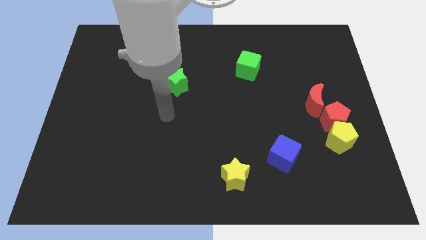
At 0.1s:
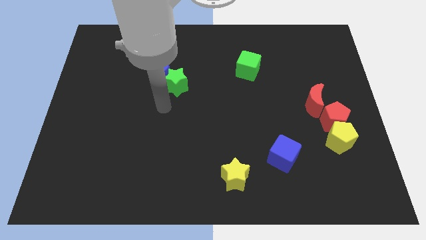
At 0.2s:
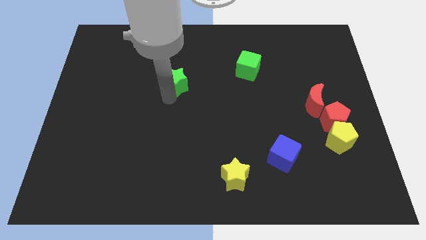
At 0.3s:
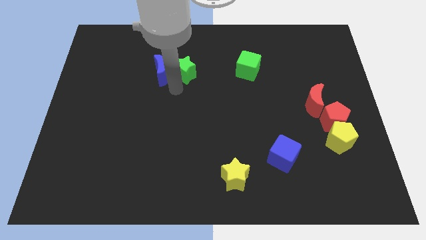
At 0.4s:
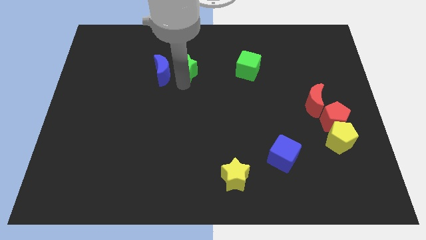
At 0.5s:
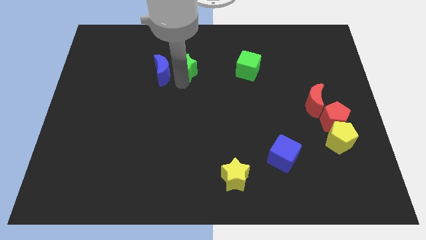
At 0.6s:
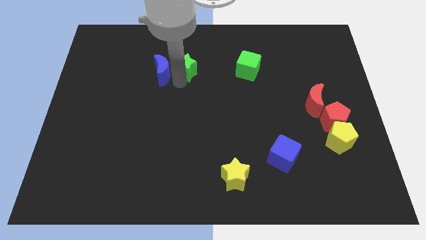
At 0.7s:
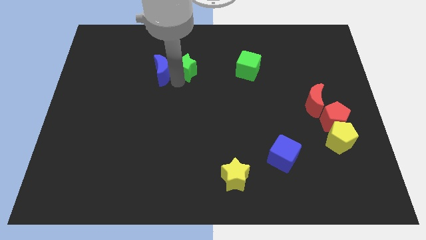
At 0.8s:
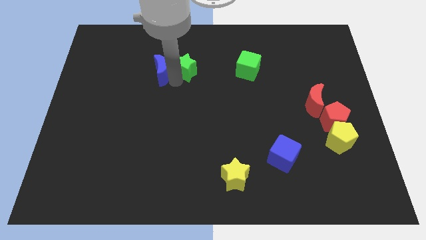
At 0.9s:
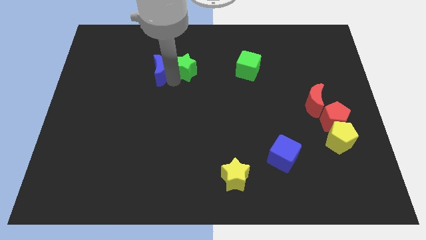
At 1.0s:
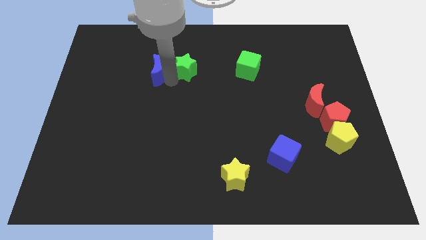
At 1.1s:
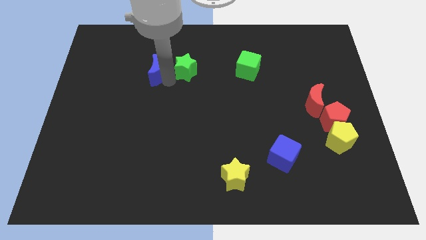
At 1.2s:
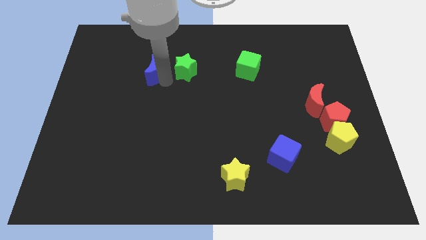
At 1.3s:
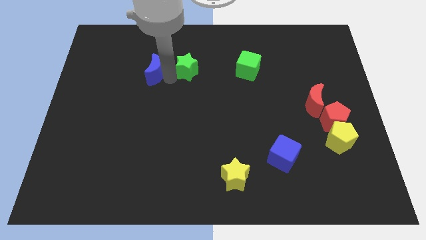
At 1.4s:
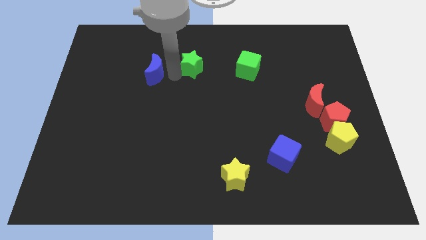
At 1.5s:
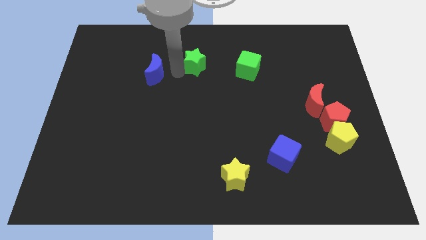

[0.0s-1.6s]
move the blue moon away from the green star

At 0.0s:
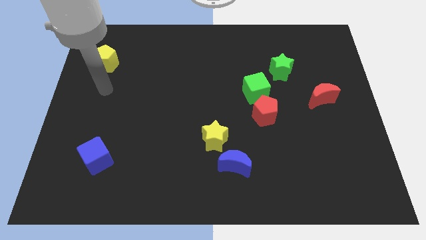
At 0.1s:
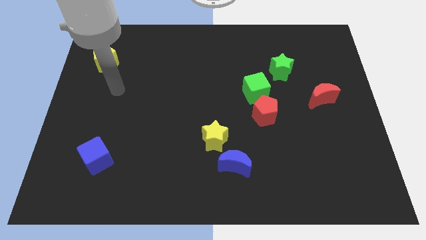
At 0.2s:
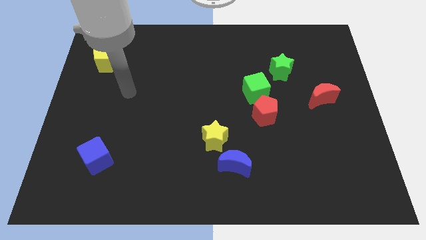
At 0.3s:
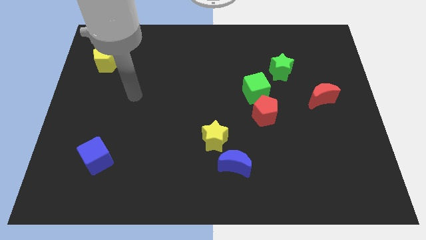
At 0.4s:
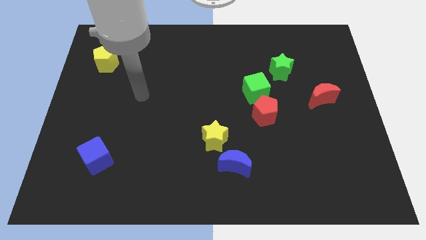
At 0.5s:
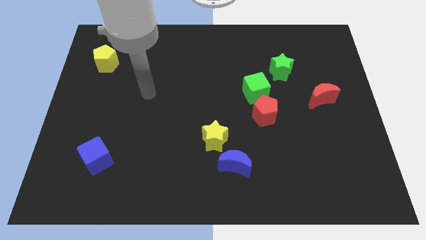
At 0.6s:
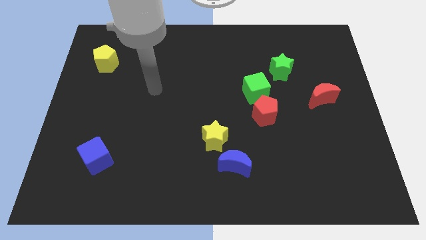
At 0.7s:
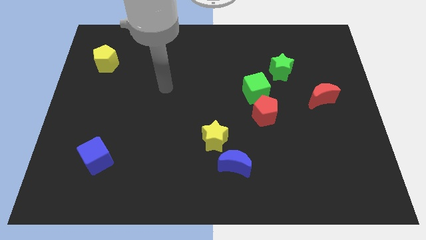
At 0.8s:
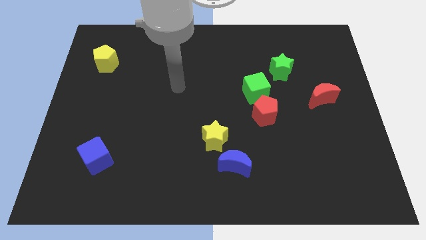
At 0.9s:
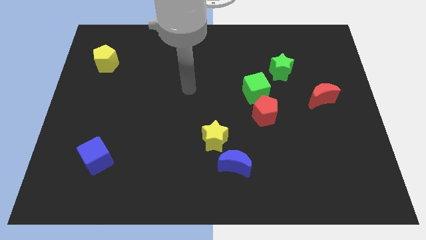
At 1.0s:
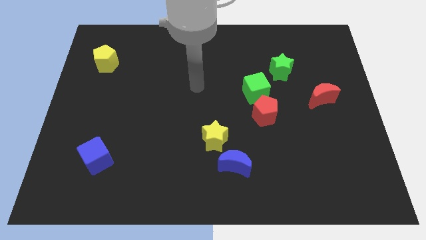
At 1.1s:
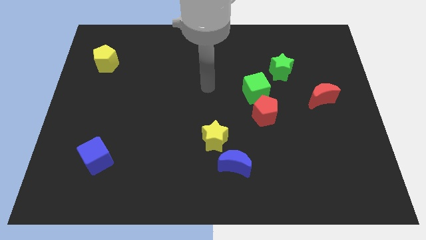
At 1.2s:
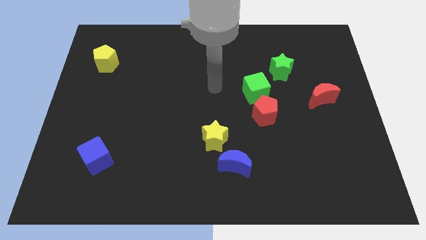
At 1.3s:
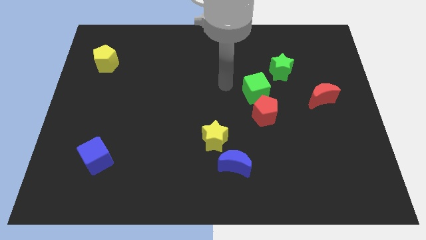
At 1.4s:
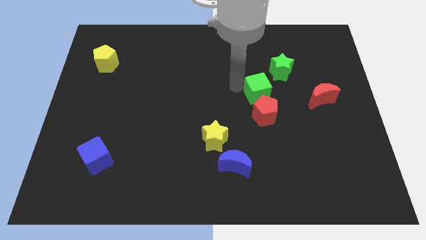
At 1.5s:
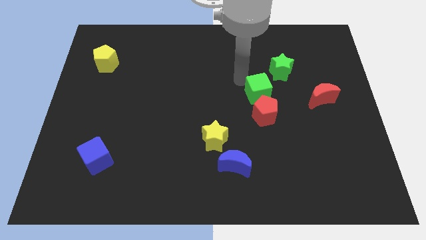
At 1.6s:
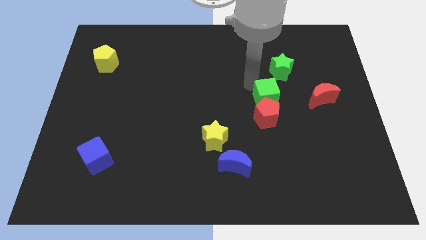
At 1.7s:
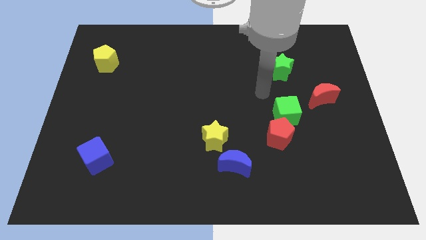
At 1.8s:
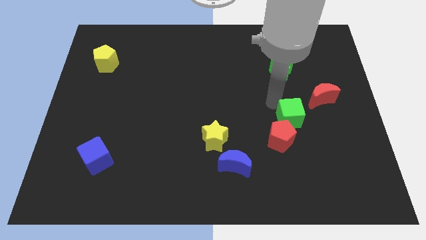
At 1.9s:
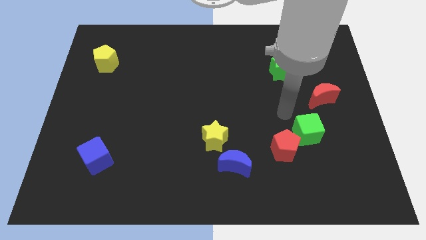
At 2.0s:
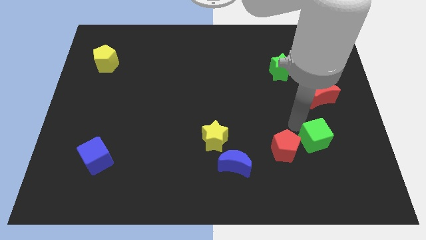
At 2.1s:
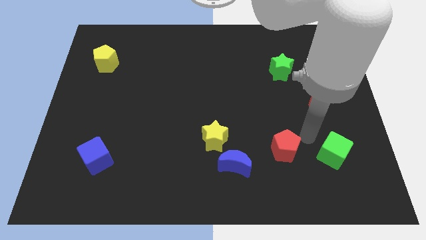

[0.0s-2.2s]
move the red pentagon away from the green cube

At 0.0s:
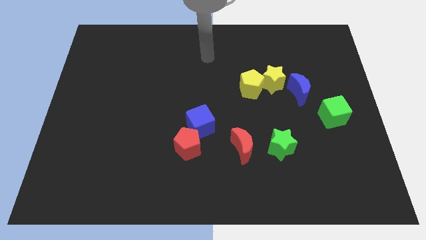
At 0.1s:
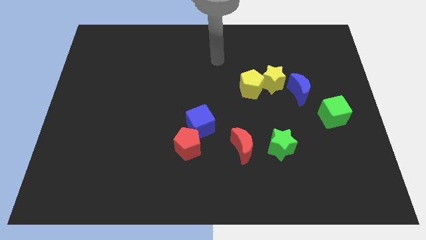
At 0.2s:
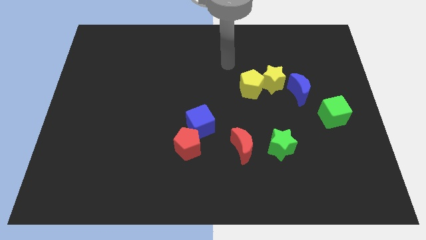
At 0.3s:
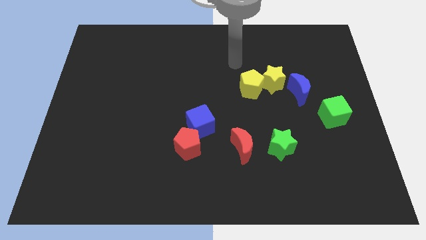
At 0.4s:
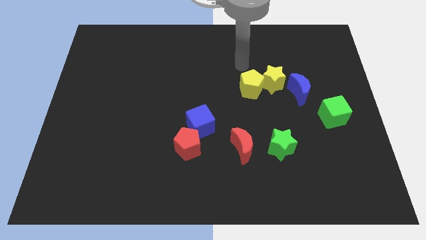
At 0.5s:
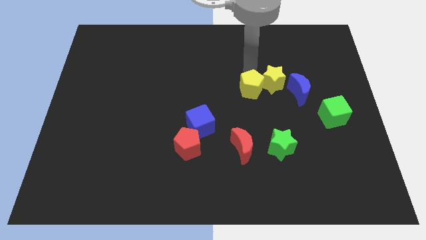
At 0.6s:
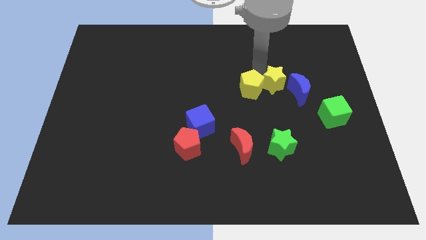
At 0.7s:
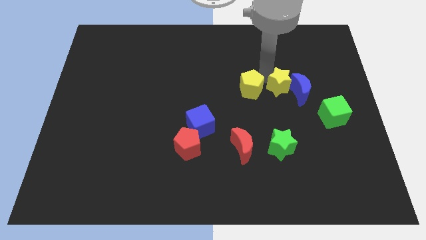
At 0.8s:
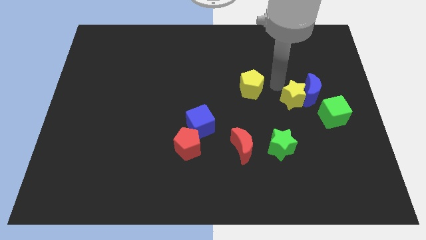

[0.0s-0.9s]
separate the yellow pentagon from the yellow star

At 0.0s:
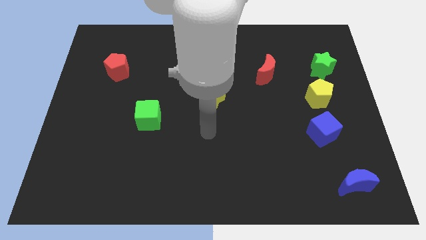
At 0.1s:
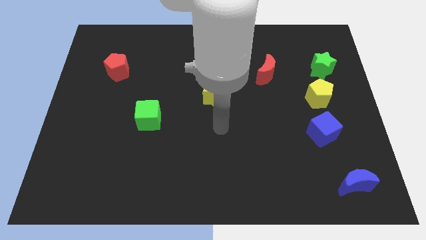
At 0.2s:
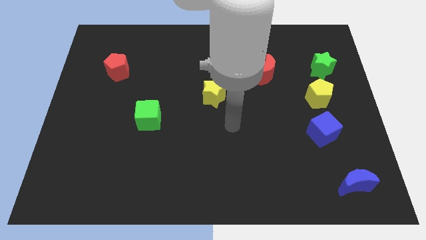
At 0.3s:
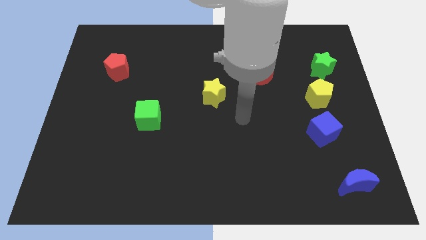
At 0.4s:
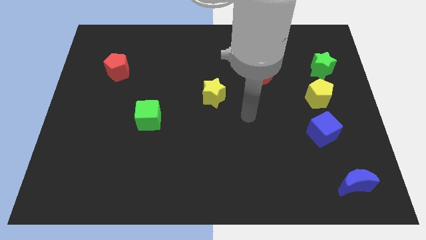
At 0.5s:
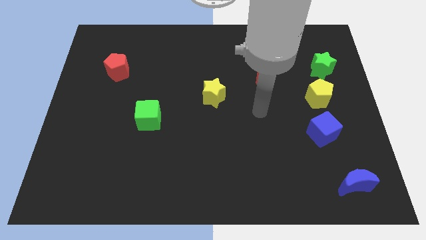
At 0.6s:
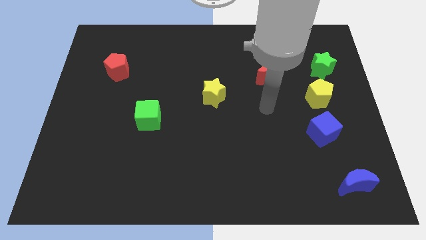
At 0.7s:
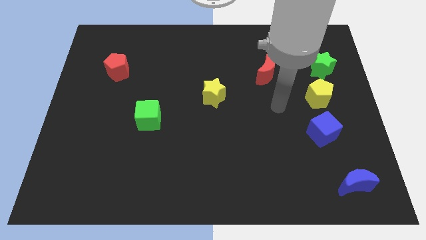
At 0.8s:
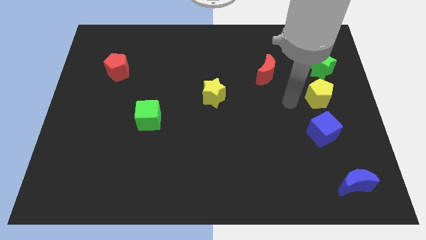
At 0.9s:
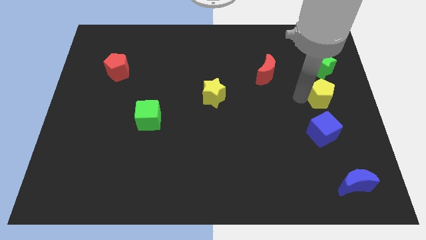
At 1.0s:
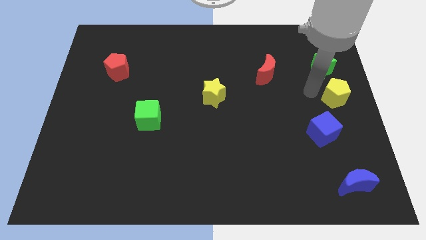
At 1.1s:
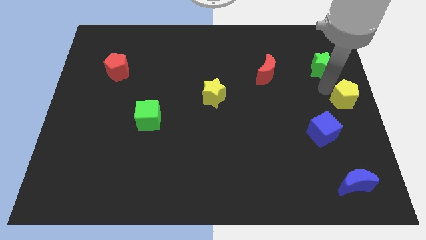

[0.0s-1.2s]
pull the green star apart from the yellow pentagon

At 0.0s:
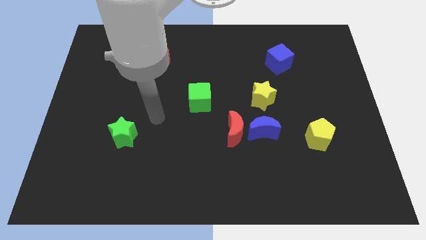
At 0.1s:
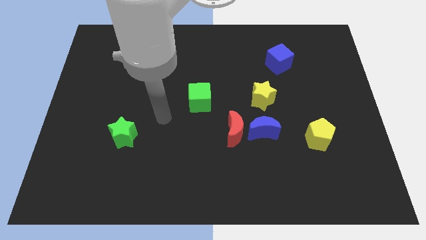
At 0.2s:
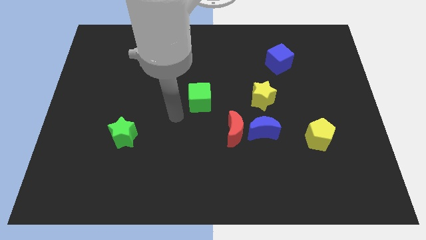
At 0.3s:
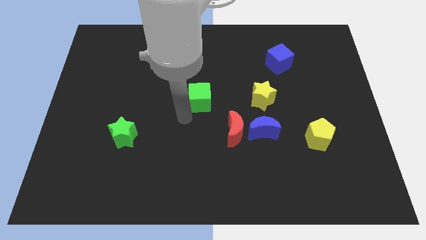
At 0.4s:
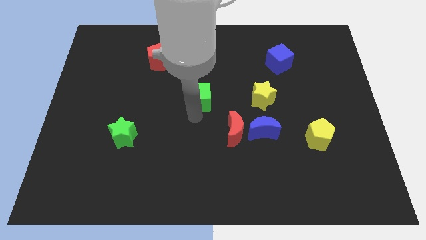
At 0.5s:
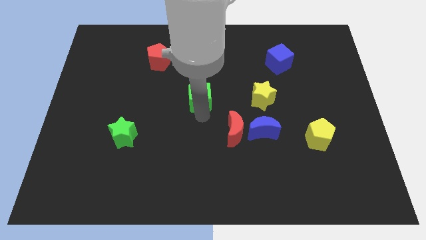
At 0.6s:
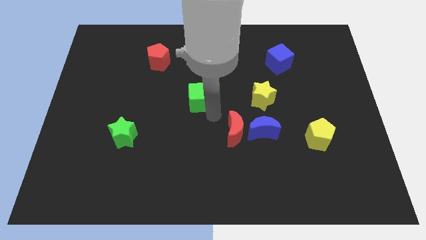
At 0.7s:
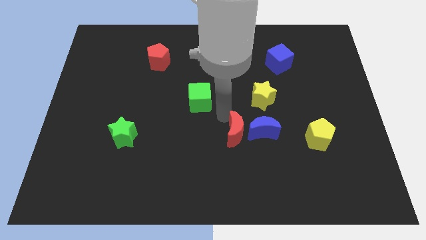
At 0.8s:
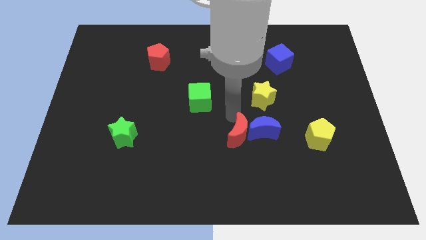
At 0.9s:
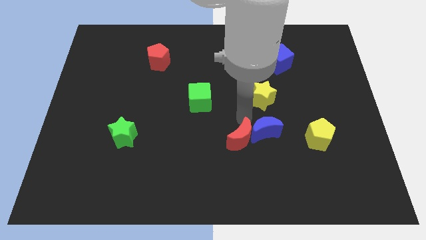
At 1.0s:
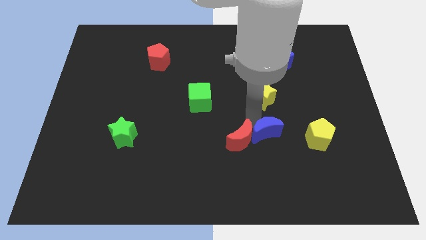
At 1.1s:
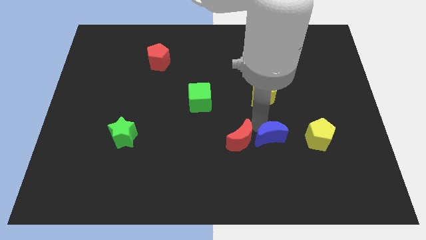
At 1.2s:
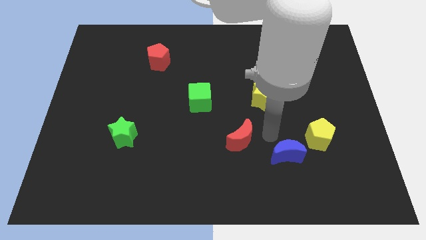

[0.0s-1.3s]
separate the red moon from the blue moon

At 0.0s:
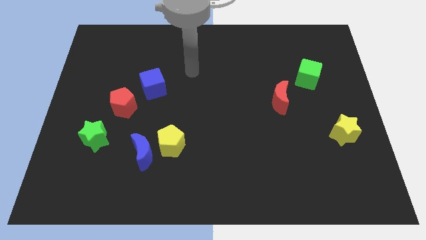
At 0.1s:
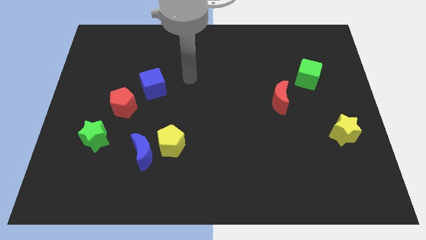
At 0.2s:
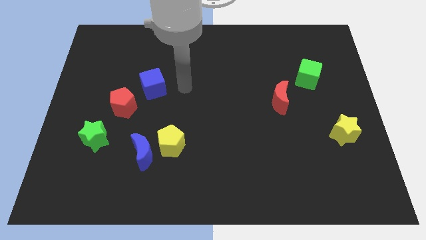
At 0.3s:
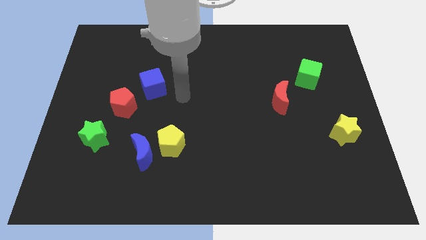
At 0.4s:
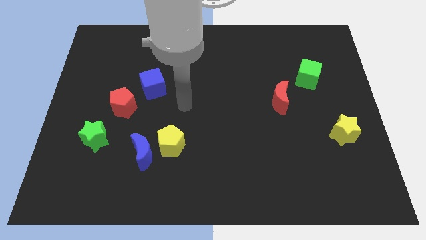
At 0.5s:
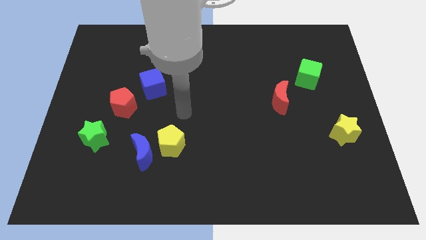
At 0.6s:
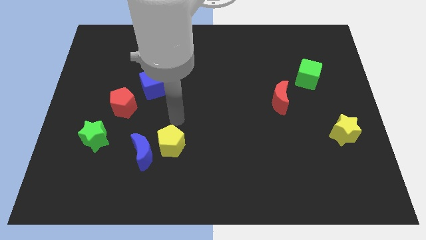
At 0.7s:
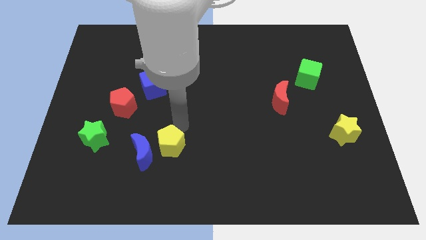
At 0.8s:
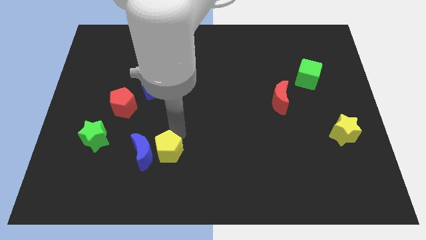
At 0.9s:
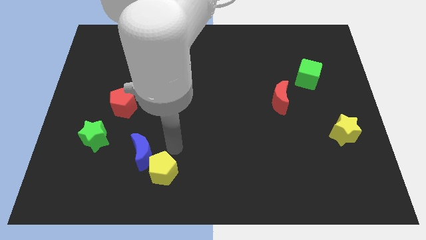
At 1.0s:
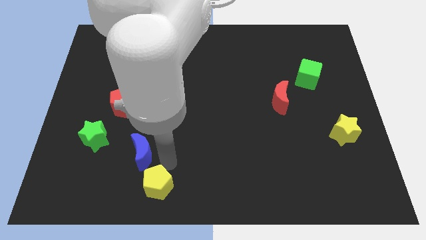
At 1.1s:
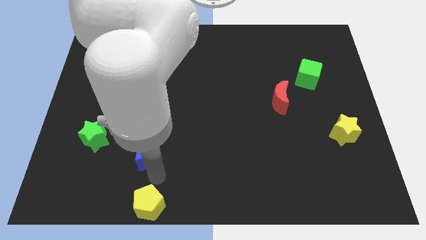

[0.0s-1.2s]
separate the blue moon from the yellow pentagon

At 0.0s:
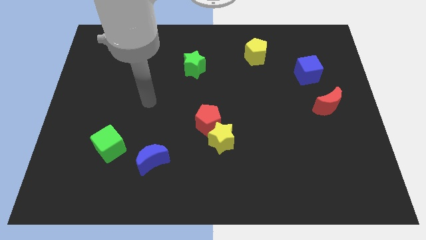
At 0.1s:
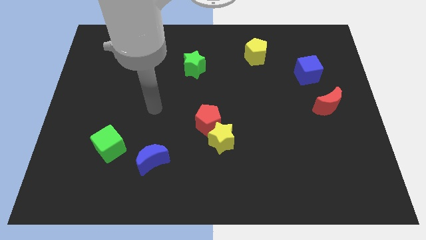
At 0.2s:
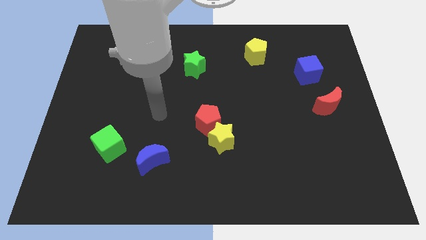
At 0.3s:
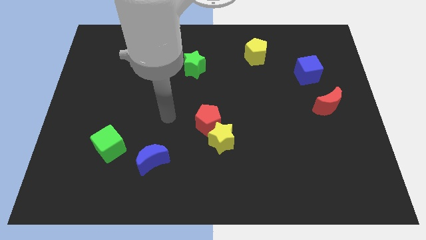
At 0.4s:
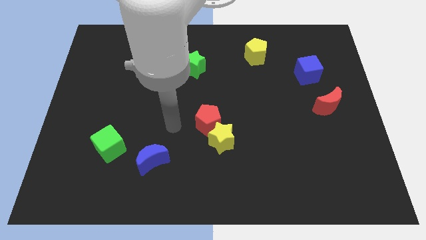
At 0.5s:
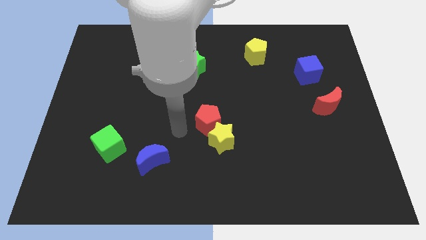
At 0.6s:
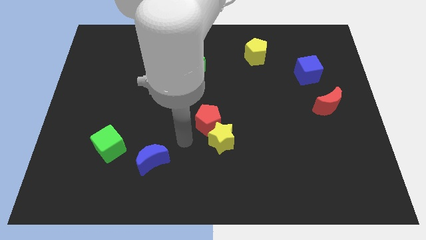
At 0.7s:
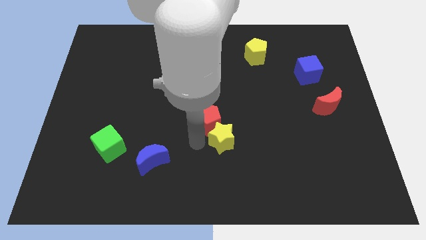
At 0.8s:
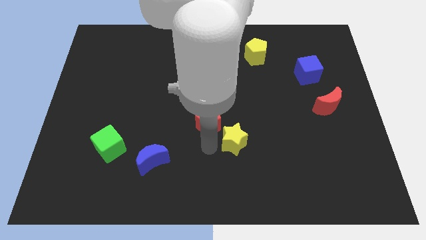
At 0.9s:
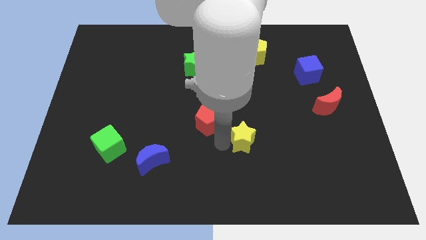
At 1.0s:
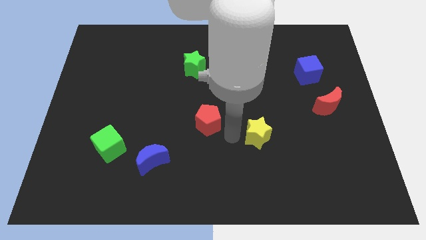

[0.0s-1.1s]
move the red pentagon away from the yellow star
